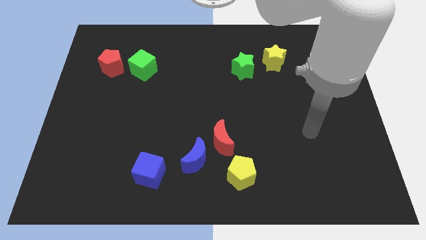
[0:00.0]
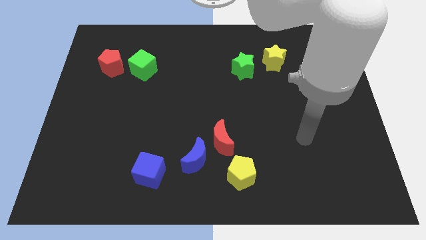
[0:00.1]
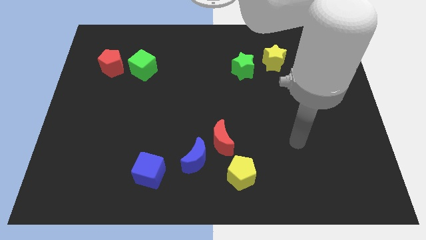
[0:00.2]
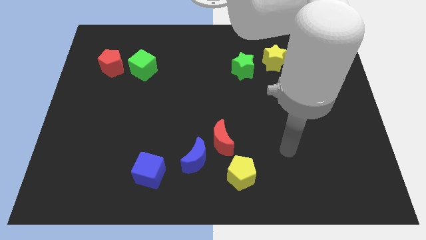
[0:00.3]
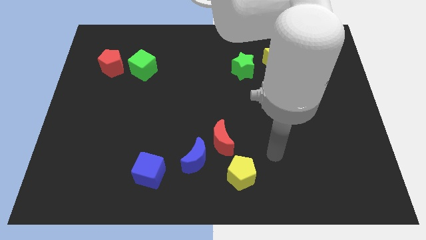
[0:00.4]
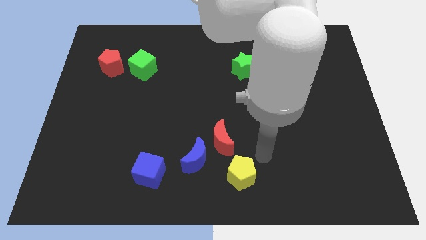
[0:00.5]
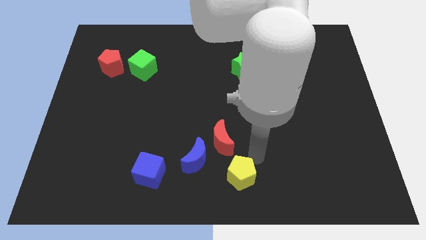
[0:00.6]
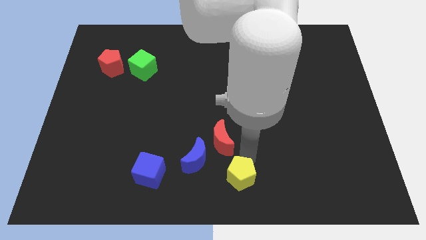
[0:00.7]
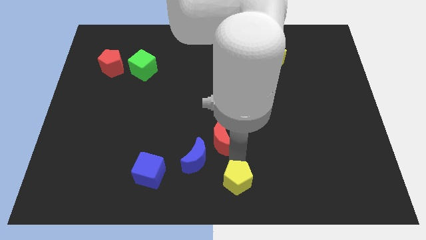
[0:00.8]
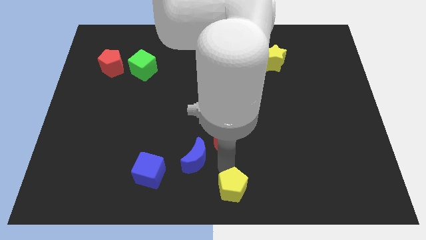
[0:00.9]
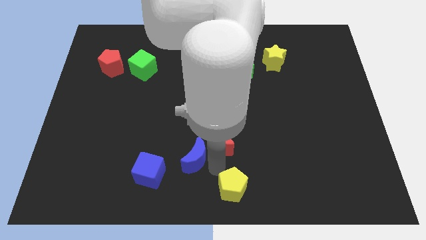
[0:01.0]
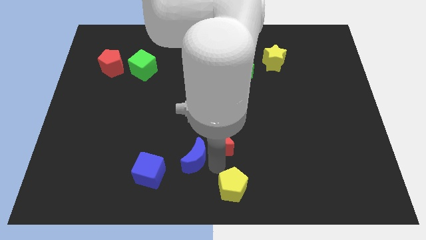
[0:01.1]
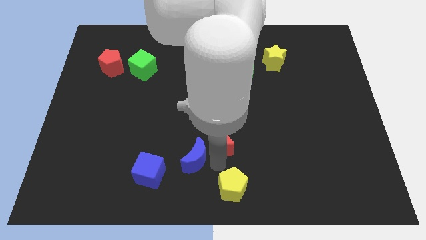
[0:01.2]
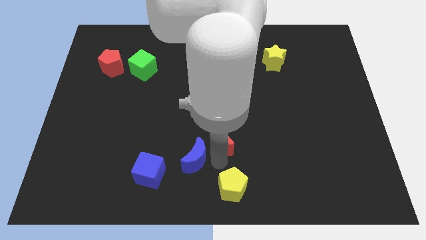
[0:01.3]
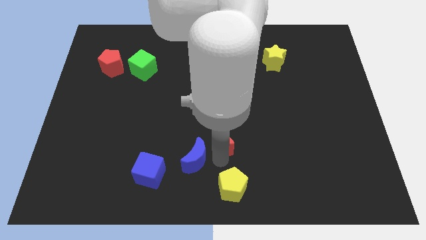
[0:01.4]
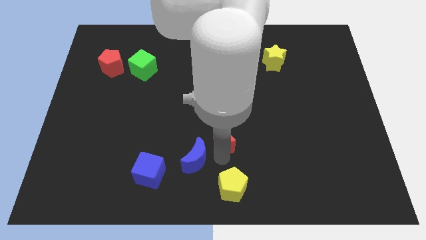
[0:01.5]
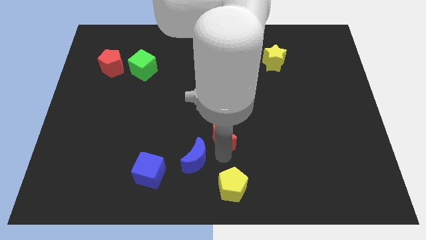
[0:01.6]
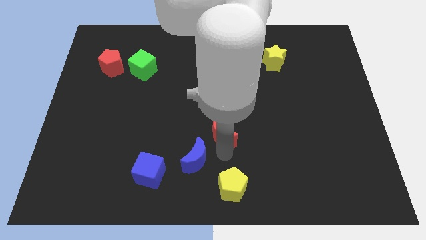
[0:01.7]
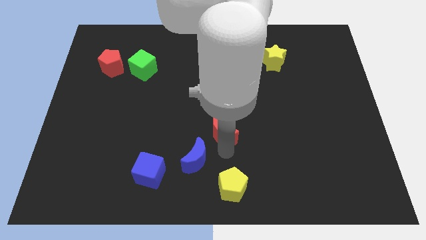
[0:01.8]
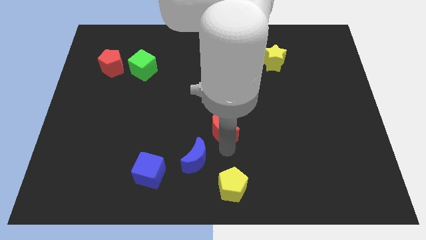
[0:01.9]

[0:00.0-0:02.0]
pull the red moon apart from the blue moon and yellow pentagon

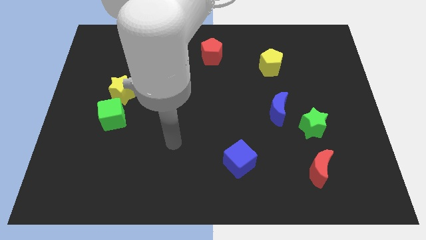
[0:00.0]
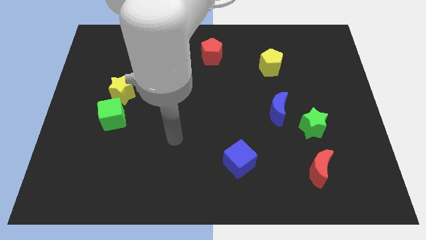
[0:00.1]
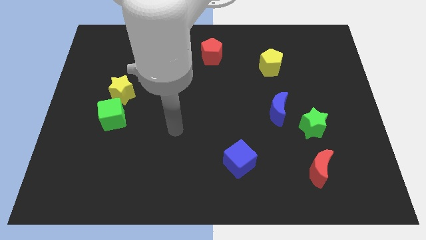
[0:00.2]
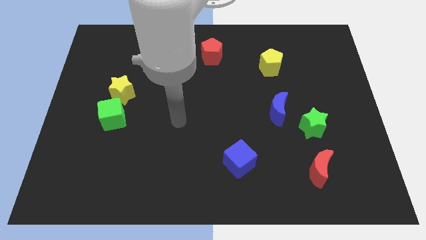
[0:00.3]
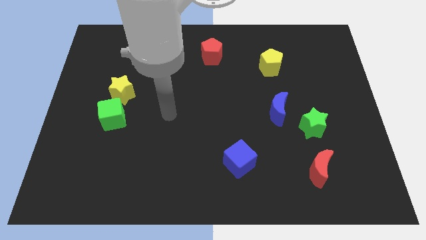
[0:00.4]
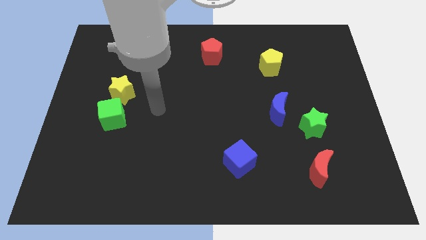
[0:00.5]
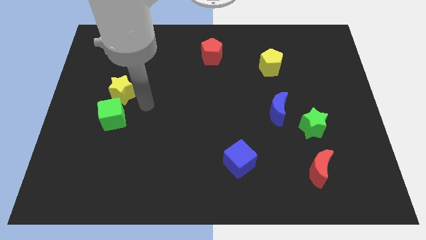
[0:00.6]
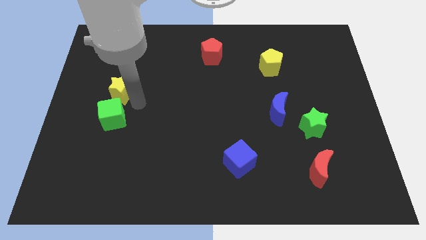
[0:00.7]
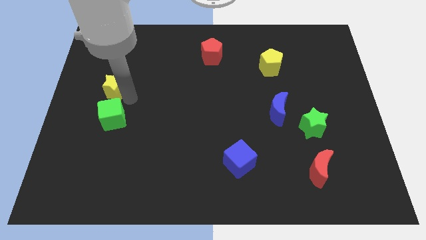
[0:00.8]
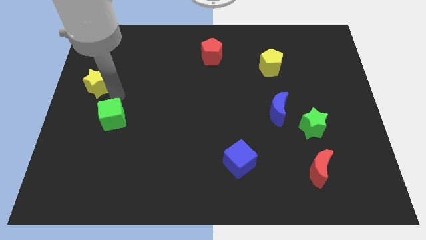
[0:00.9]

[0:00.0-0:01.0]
move the green cube away from the yellow star

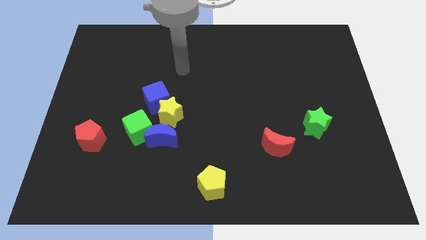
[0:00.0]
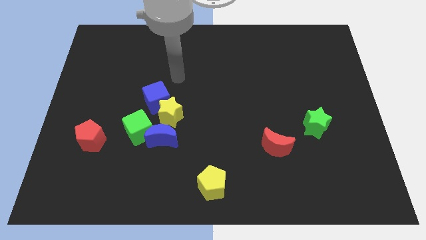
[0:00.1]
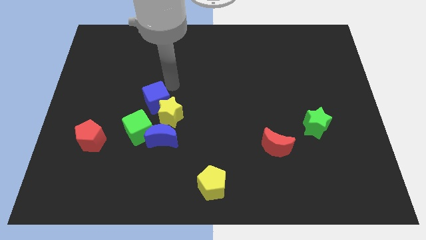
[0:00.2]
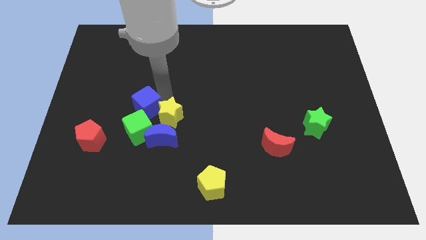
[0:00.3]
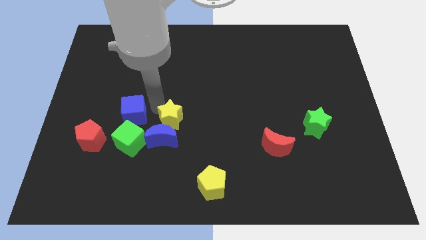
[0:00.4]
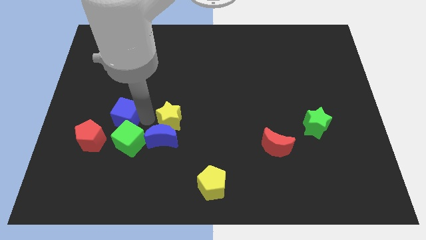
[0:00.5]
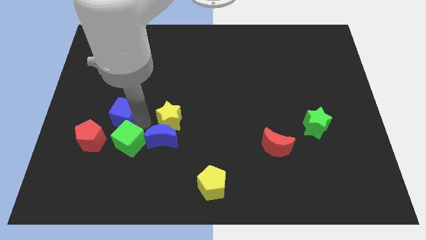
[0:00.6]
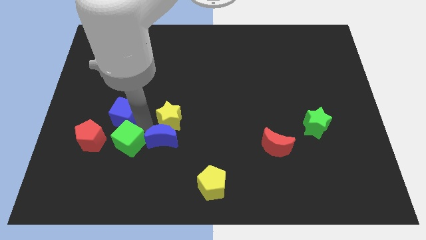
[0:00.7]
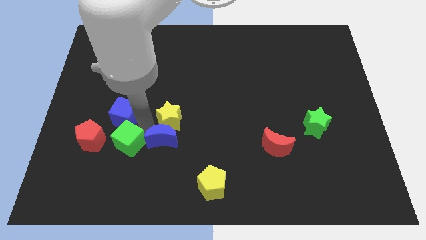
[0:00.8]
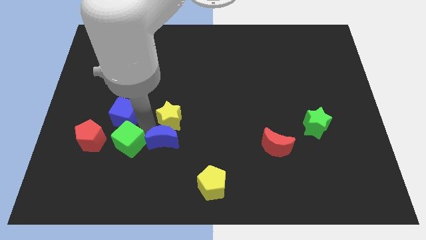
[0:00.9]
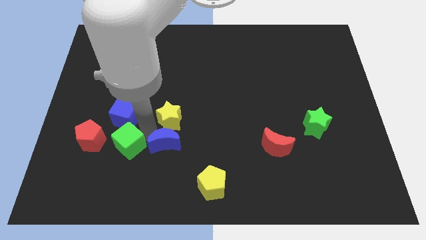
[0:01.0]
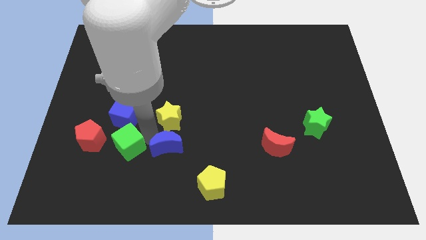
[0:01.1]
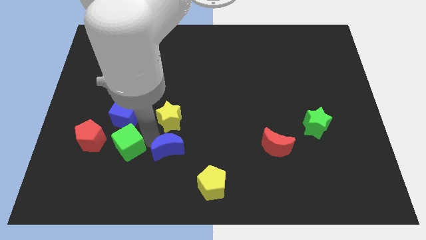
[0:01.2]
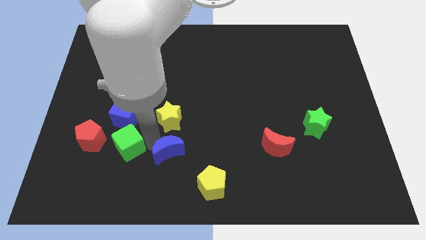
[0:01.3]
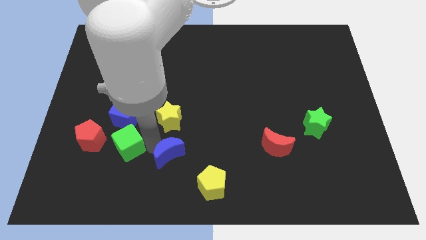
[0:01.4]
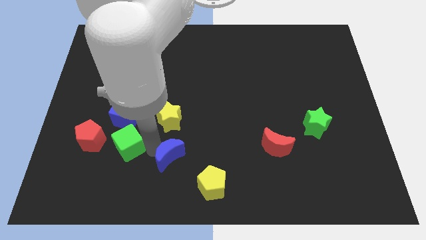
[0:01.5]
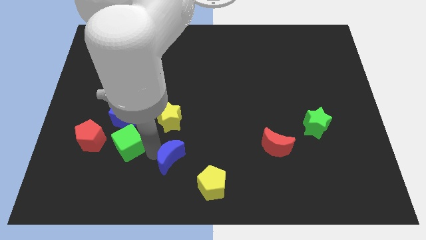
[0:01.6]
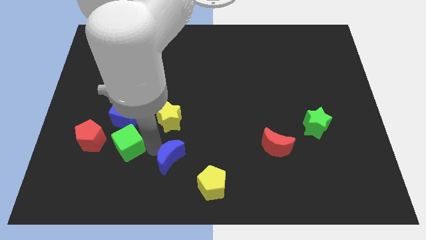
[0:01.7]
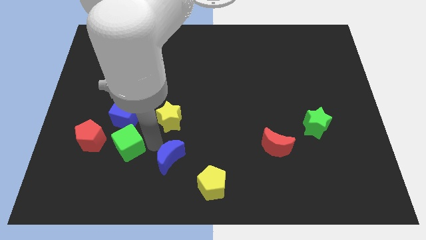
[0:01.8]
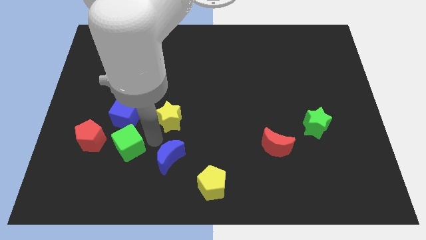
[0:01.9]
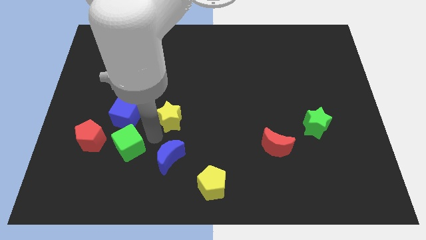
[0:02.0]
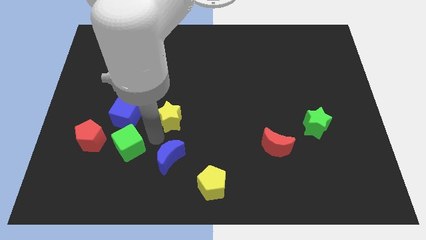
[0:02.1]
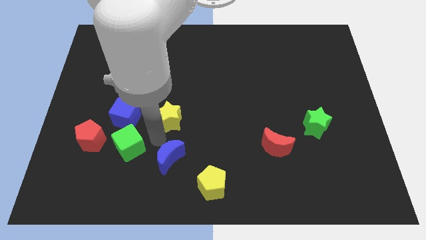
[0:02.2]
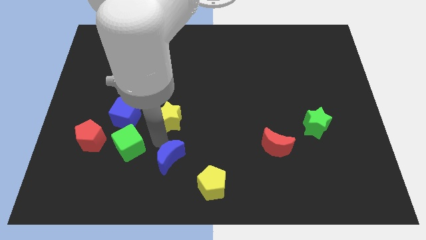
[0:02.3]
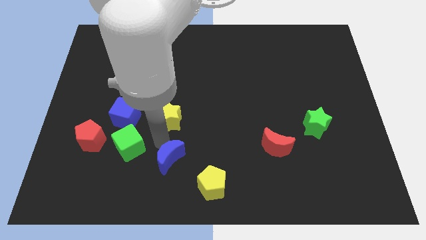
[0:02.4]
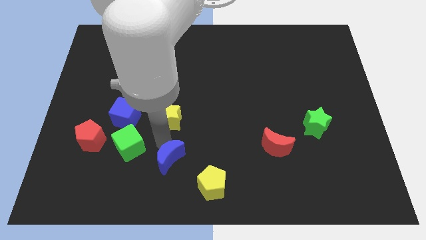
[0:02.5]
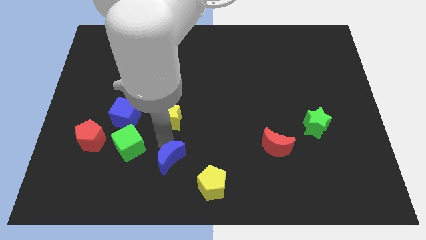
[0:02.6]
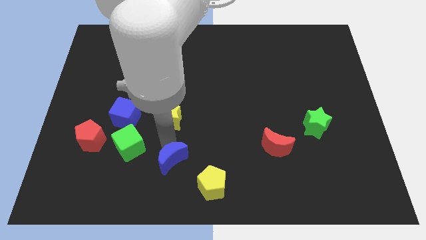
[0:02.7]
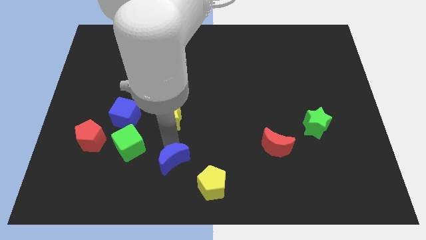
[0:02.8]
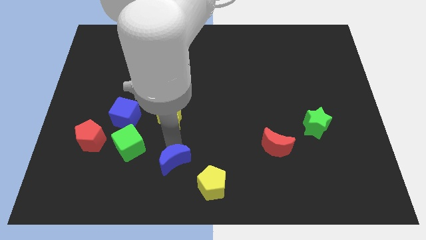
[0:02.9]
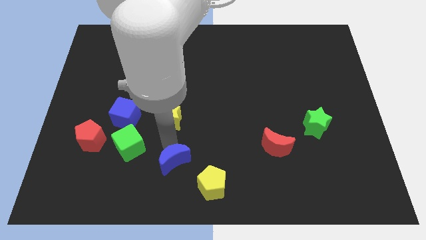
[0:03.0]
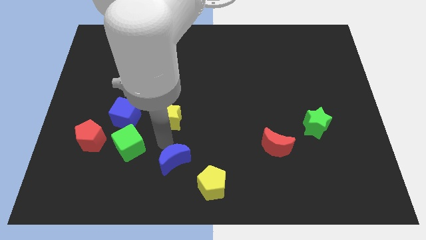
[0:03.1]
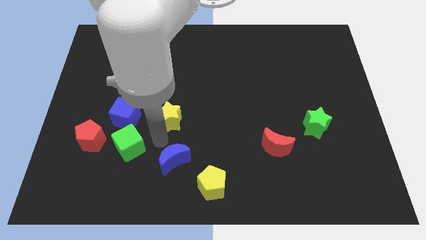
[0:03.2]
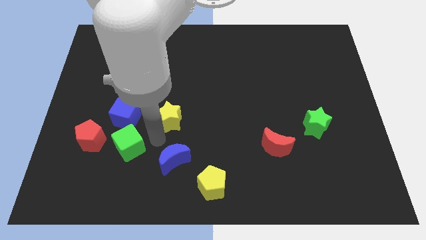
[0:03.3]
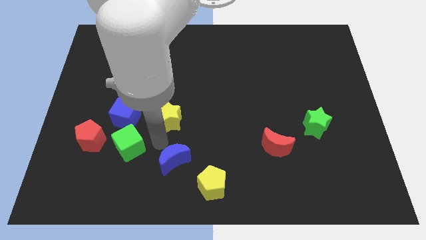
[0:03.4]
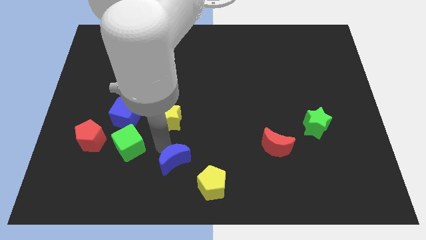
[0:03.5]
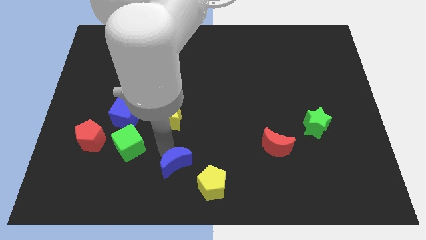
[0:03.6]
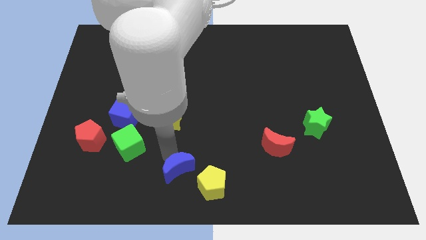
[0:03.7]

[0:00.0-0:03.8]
separate the blue moon from the green cube and yellow star

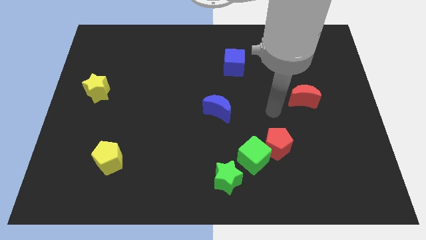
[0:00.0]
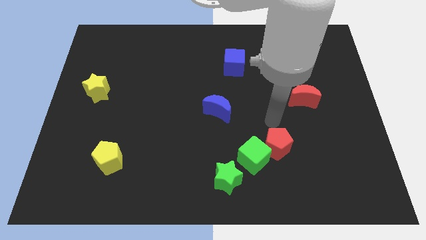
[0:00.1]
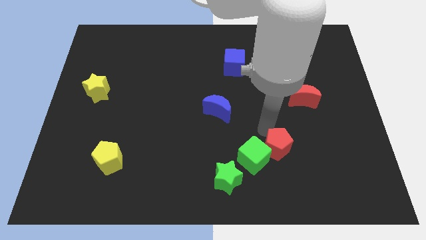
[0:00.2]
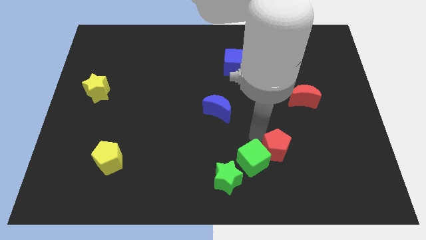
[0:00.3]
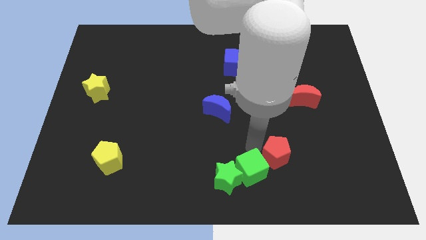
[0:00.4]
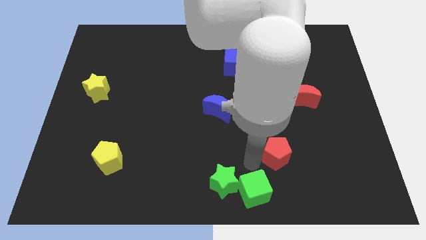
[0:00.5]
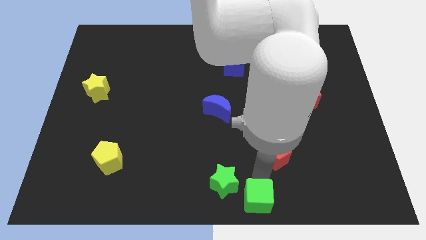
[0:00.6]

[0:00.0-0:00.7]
move the red pentagon away from the green cube

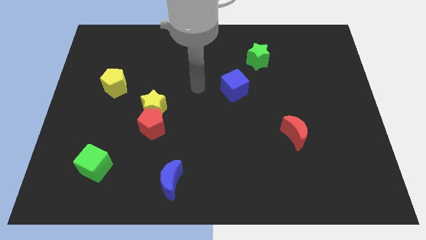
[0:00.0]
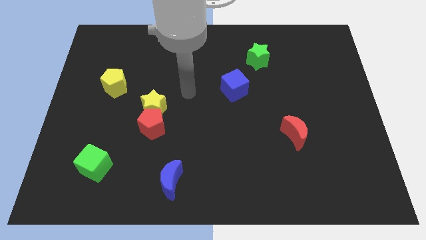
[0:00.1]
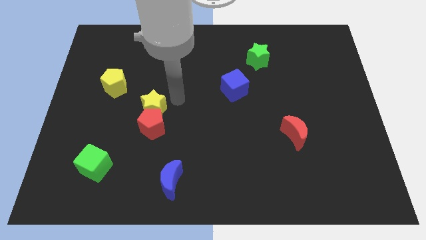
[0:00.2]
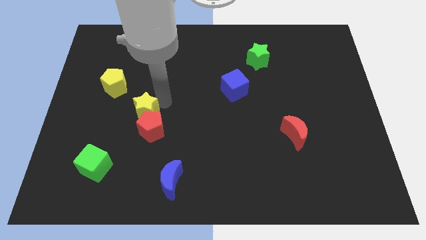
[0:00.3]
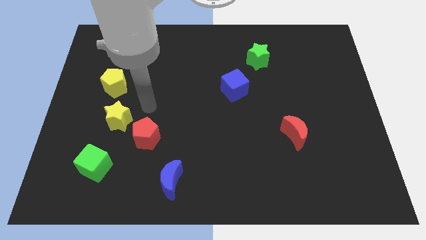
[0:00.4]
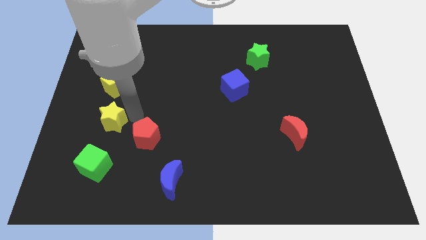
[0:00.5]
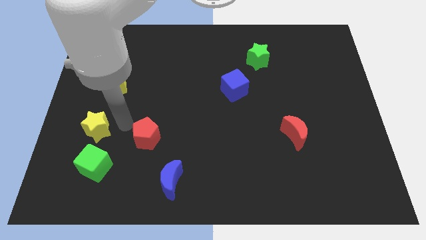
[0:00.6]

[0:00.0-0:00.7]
separate the red pentagon from the yellow star

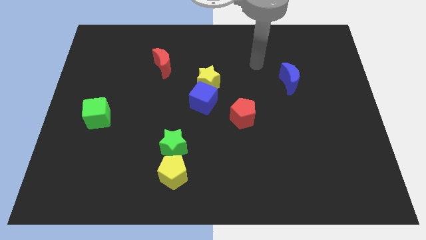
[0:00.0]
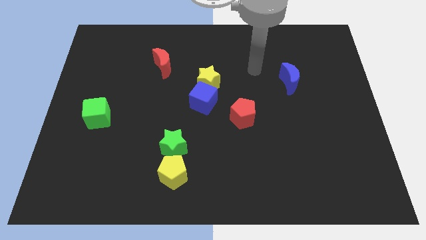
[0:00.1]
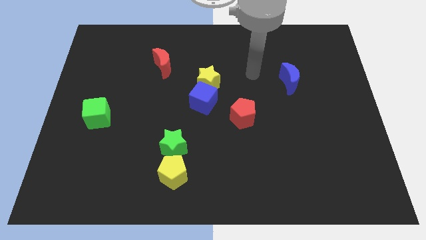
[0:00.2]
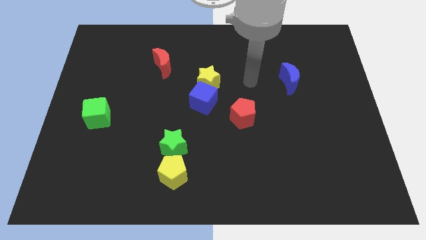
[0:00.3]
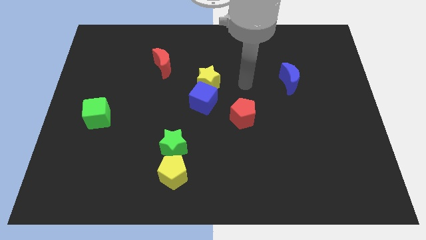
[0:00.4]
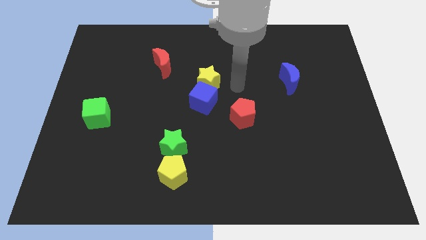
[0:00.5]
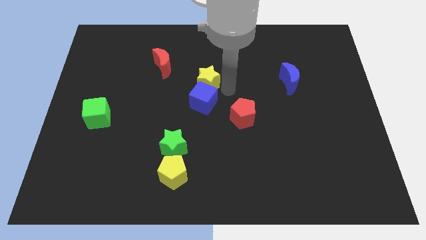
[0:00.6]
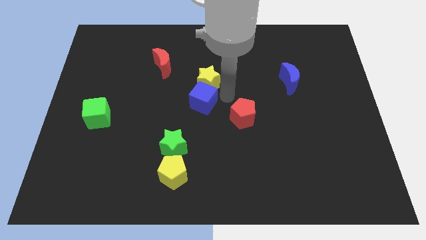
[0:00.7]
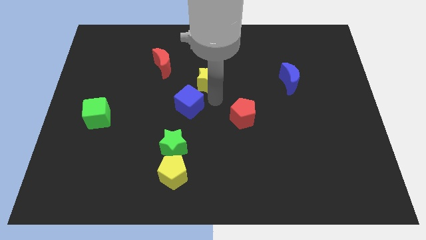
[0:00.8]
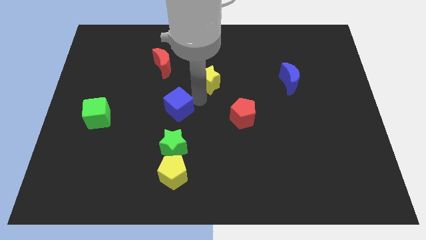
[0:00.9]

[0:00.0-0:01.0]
pull the yellow star apart from the blue cube
